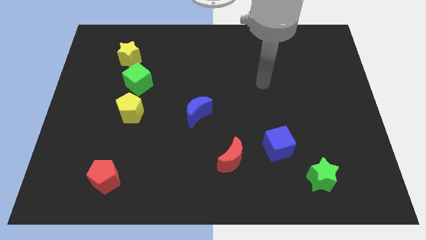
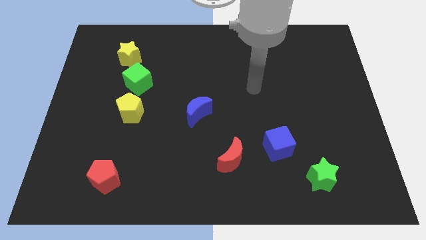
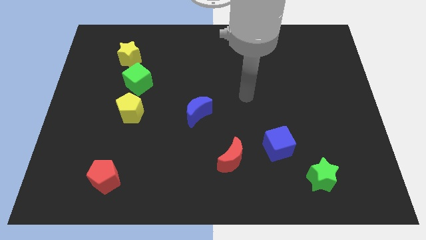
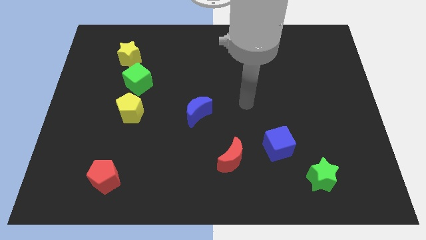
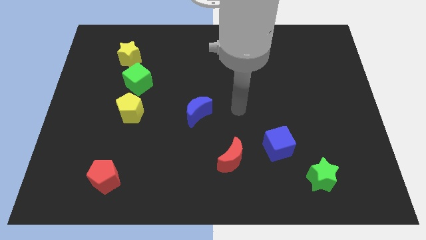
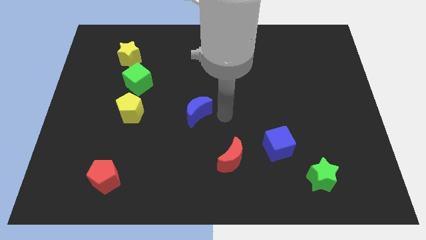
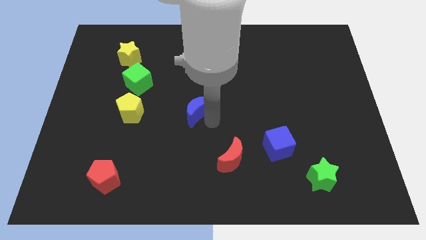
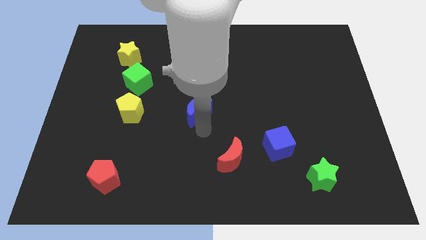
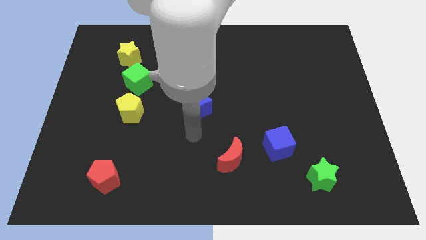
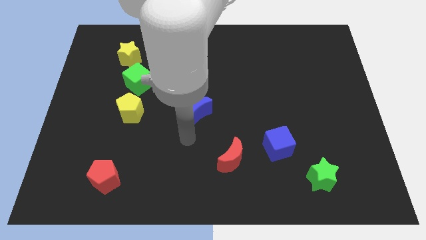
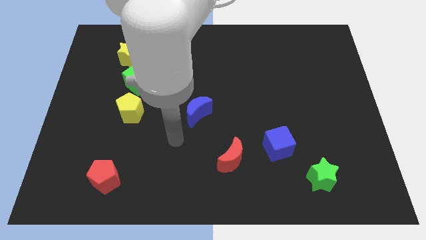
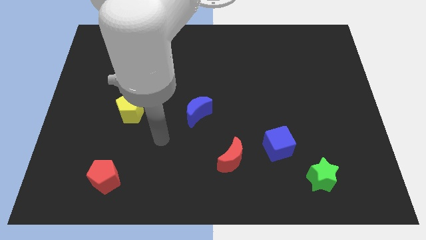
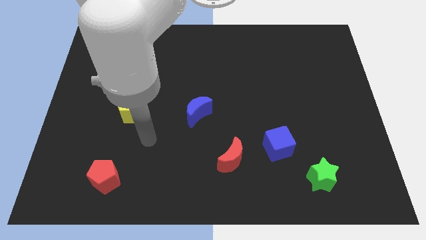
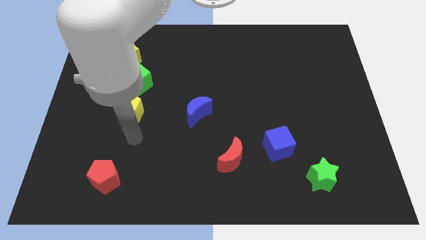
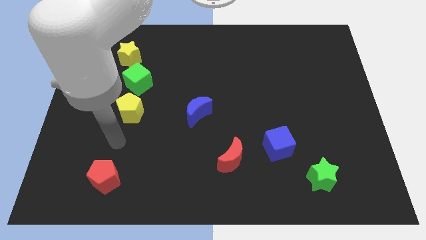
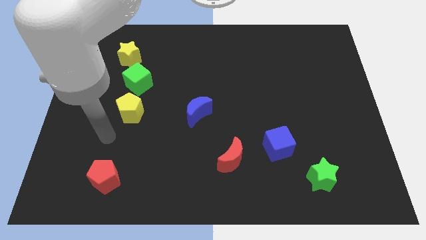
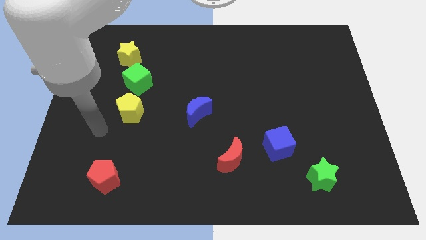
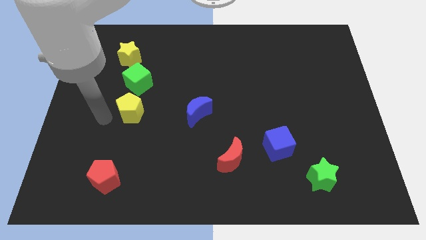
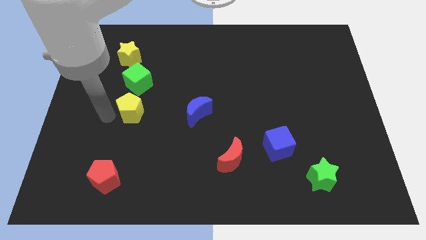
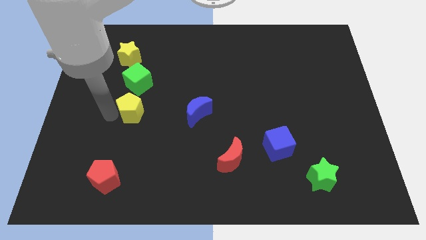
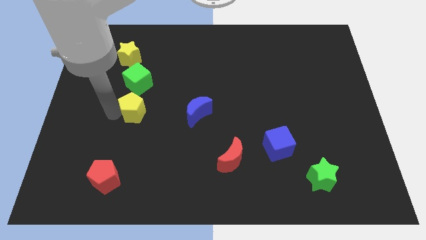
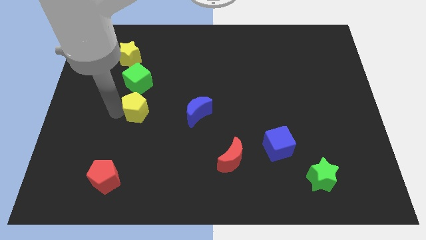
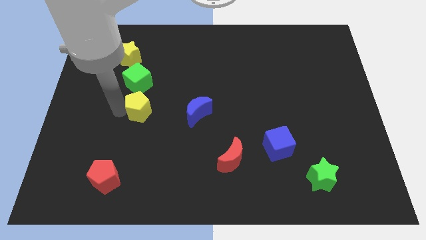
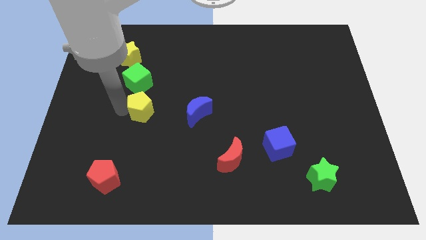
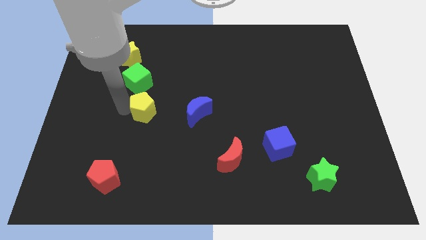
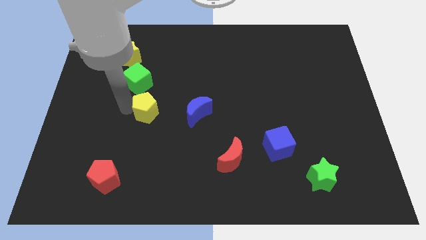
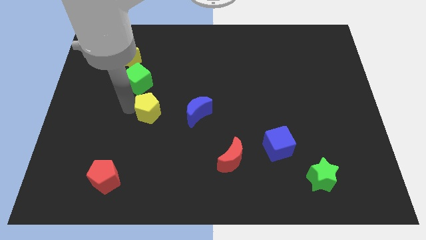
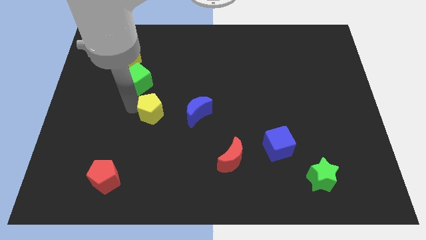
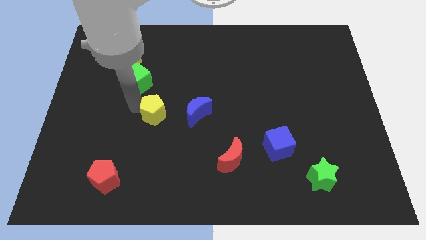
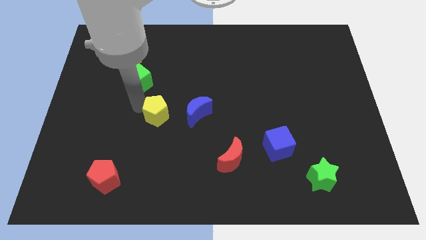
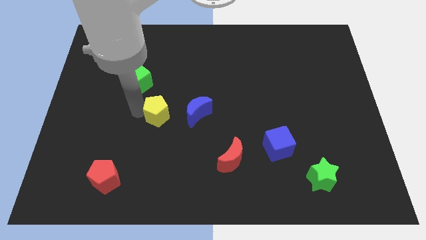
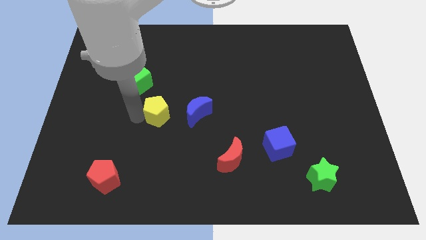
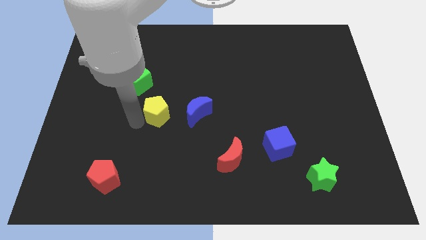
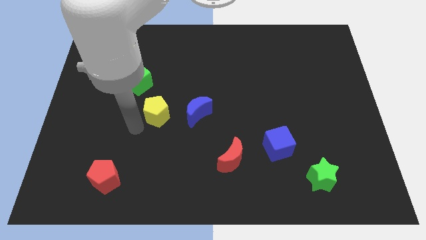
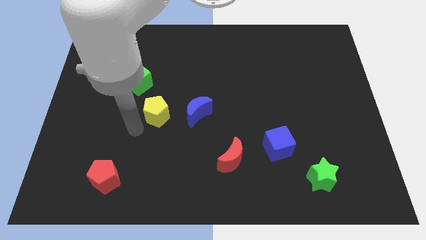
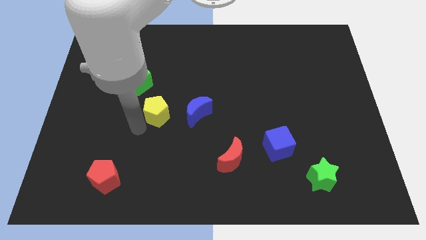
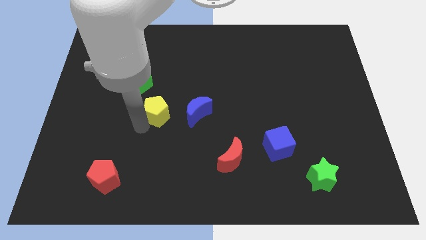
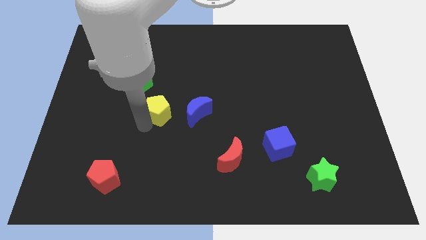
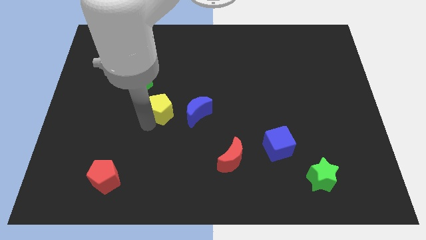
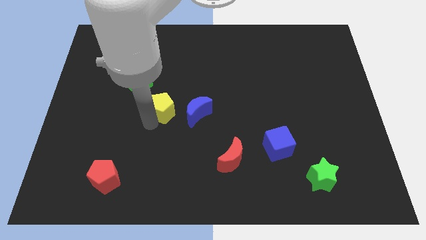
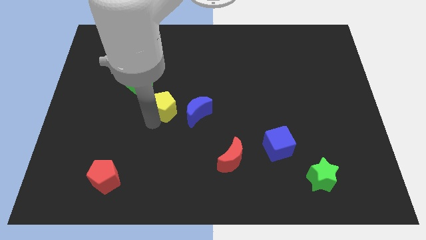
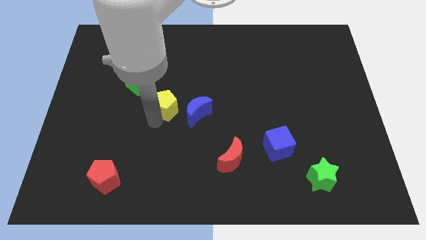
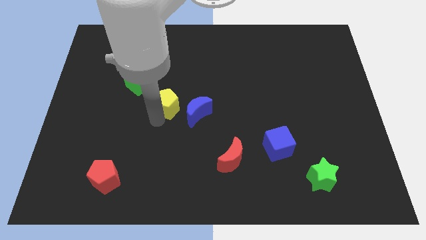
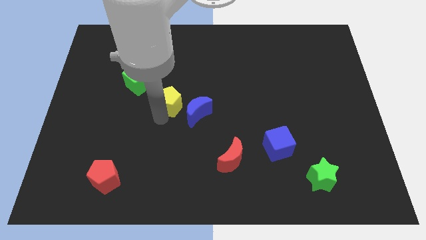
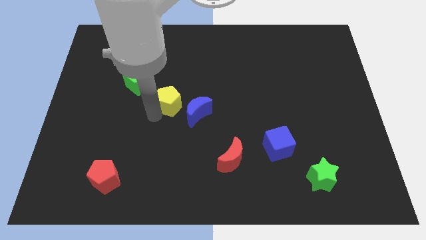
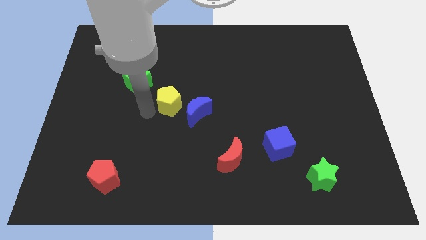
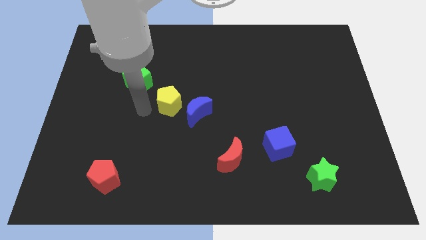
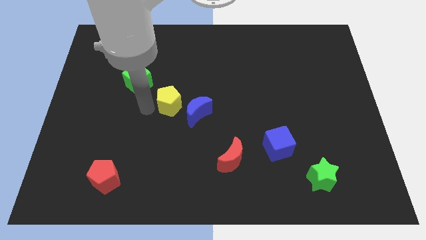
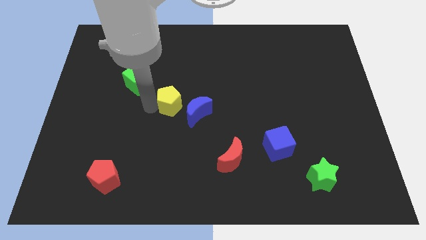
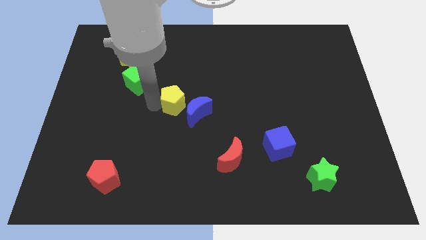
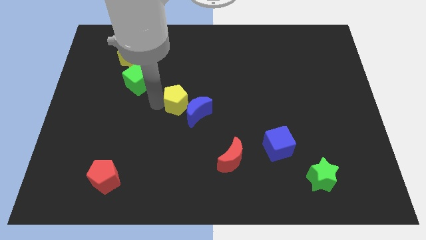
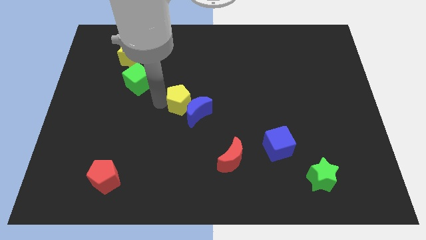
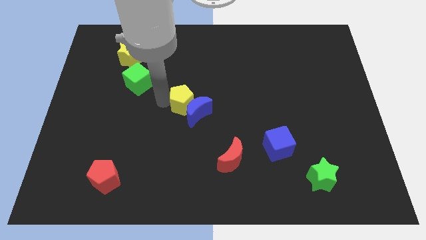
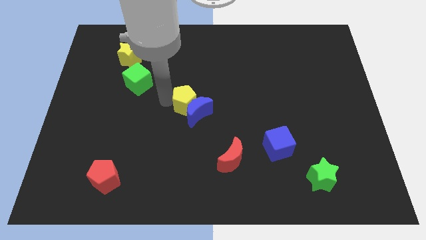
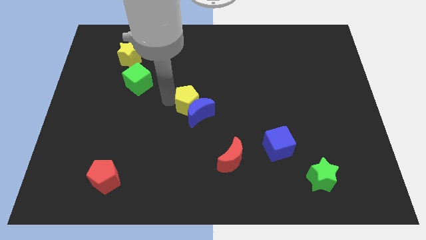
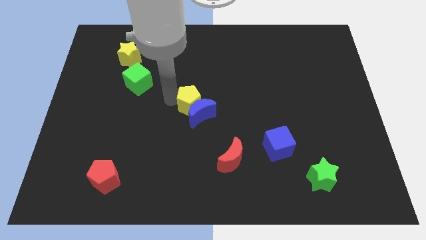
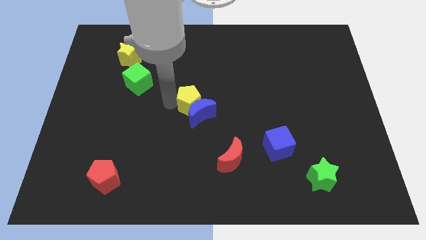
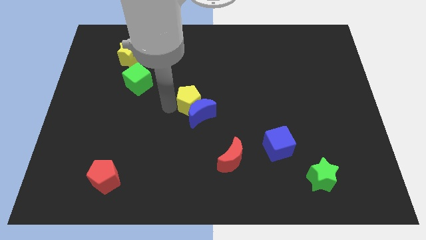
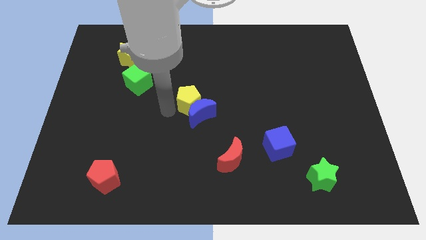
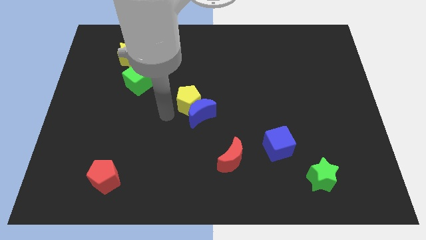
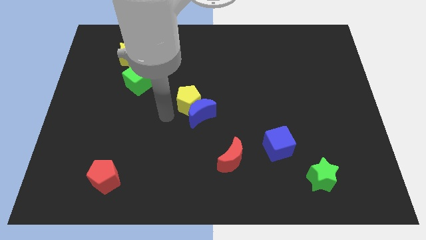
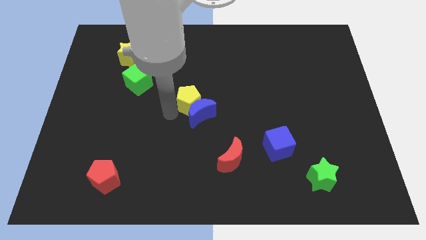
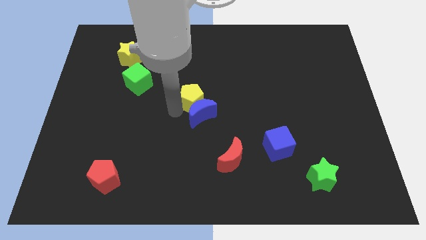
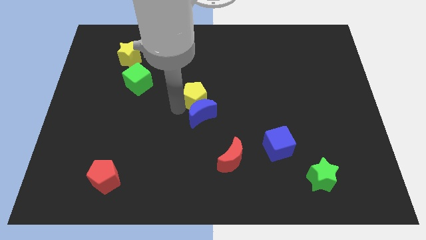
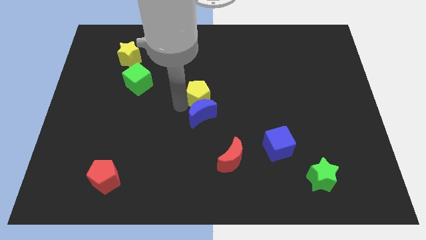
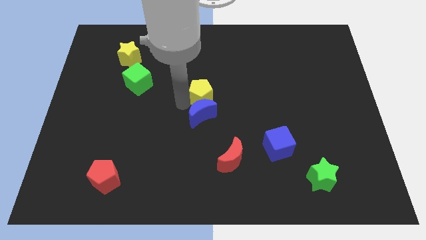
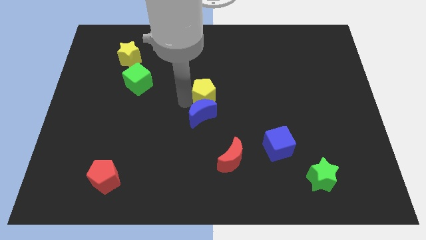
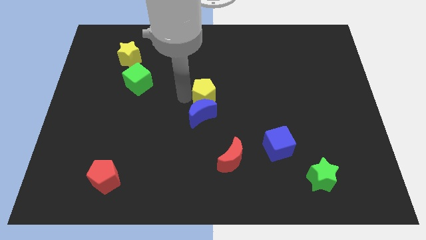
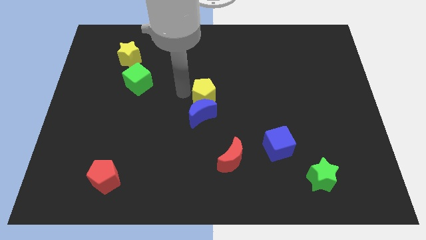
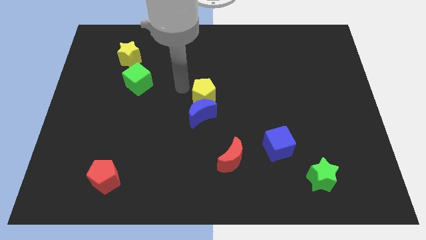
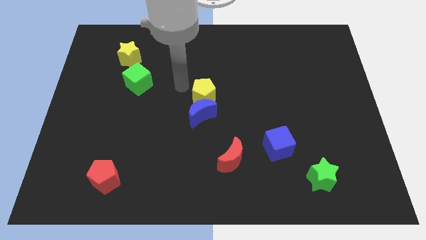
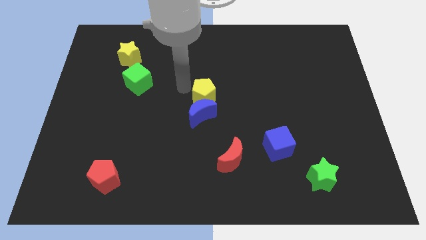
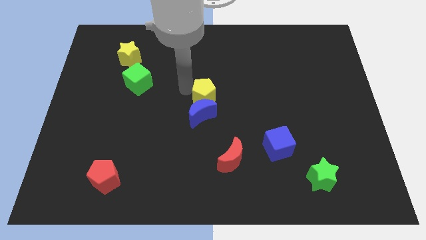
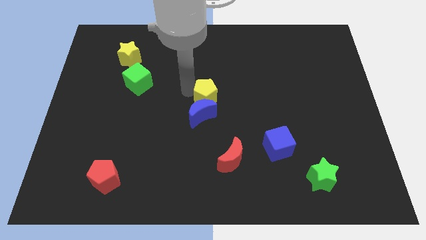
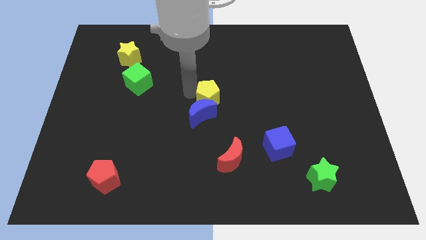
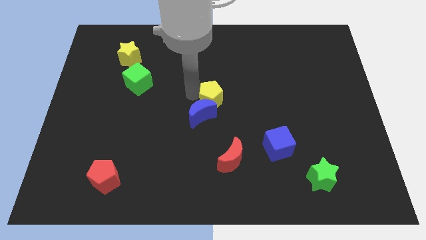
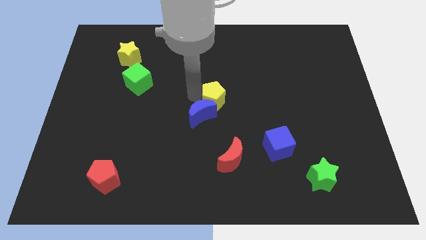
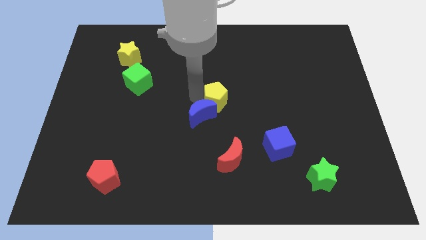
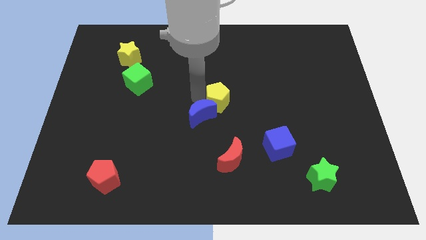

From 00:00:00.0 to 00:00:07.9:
move the yellow pentagon to the right
